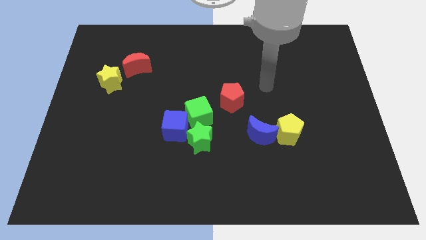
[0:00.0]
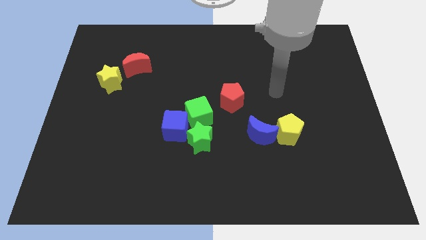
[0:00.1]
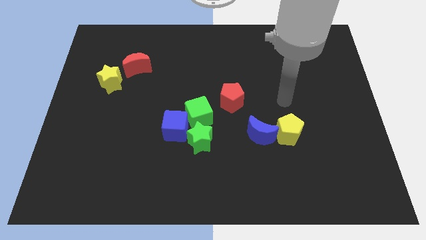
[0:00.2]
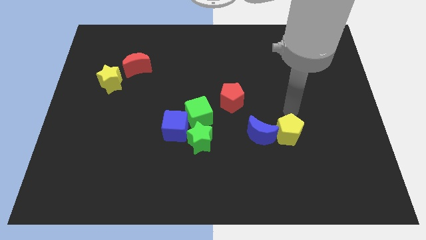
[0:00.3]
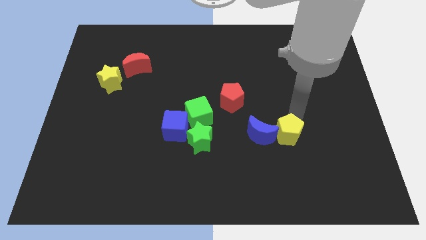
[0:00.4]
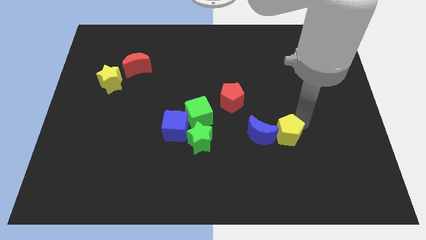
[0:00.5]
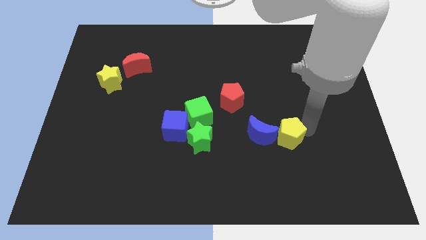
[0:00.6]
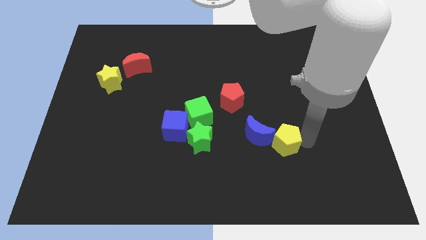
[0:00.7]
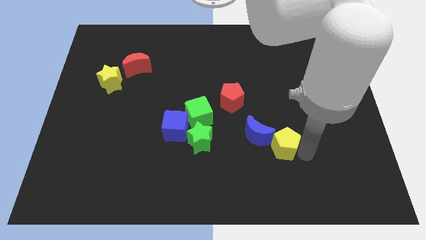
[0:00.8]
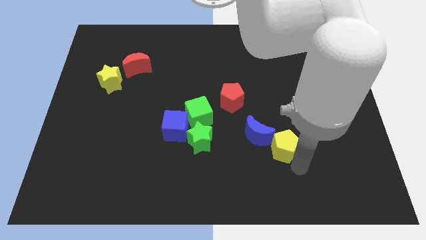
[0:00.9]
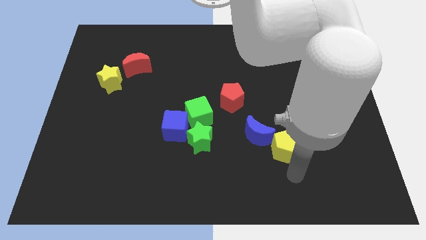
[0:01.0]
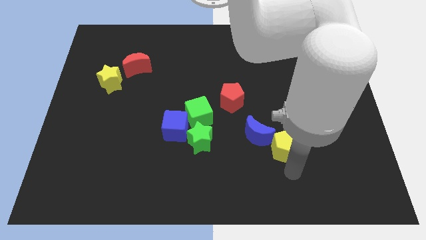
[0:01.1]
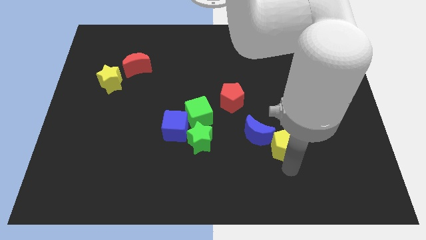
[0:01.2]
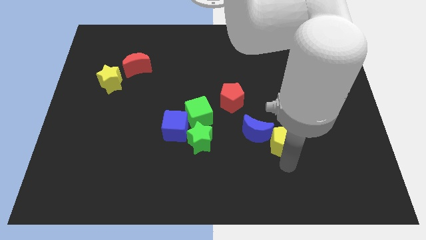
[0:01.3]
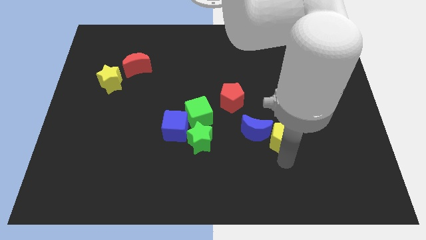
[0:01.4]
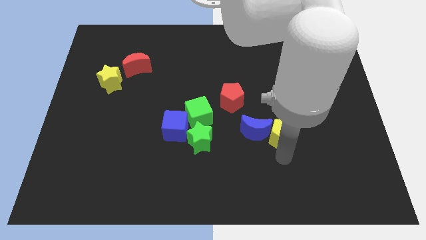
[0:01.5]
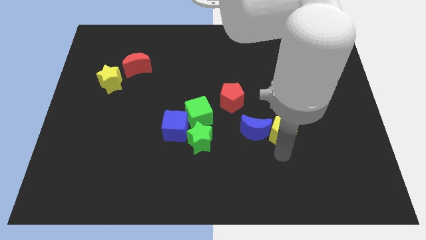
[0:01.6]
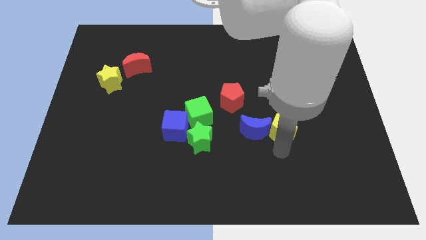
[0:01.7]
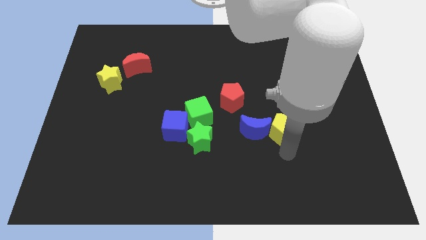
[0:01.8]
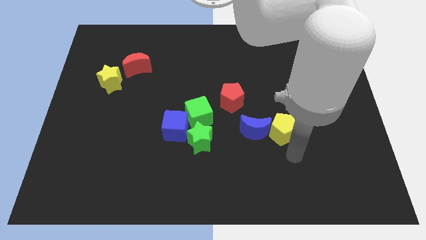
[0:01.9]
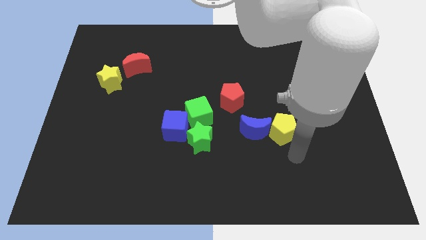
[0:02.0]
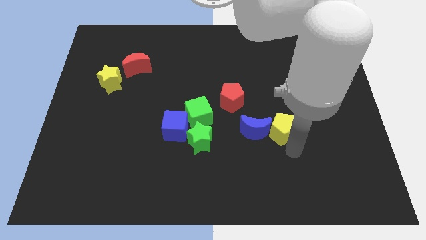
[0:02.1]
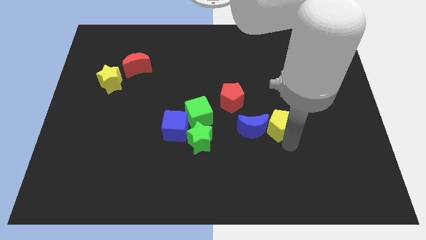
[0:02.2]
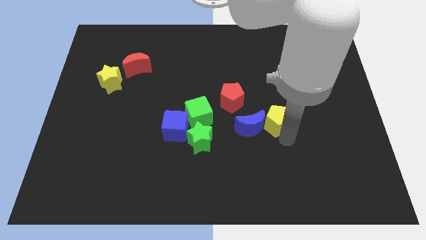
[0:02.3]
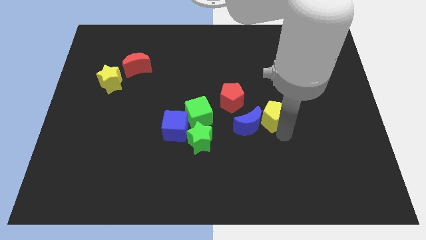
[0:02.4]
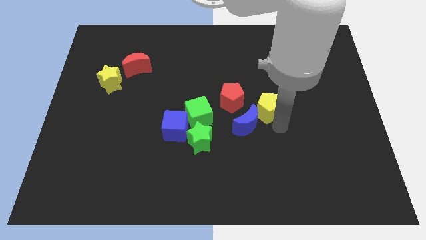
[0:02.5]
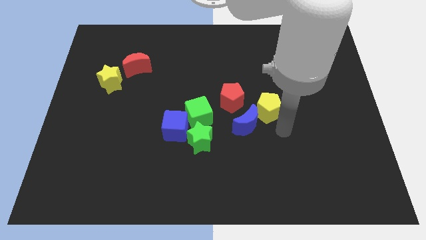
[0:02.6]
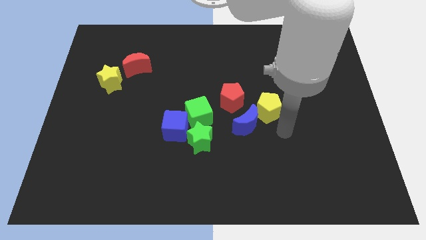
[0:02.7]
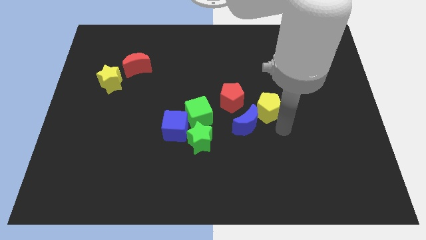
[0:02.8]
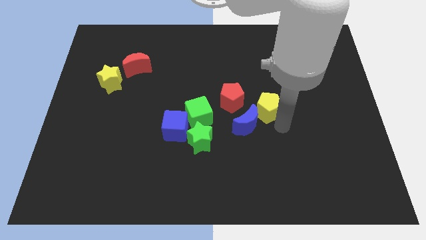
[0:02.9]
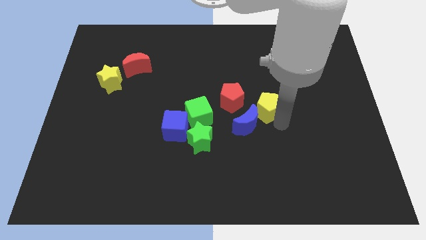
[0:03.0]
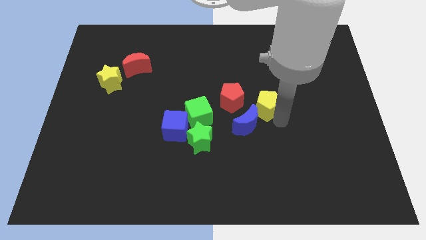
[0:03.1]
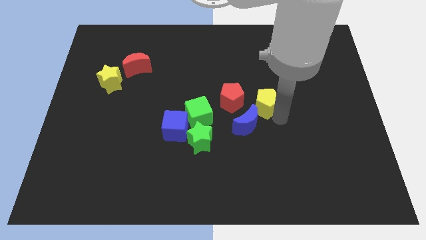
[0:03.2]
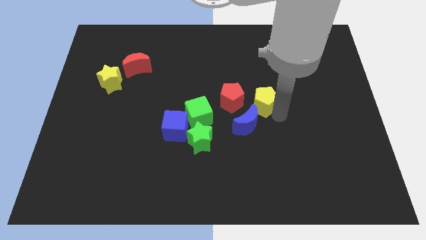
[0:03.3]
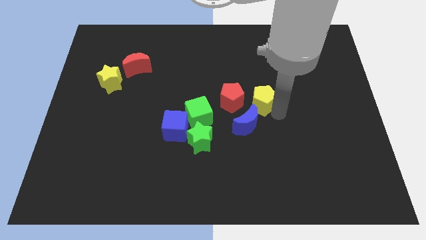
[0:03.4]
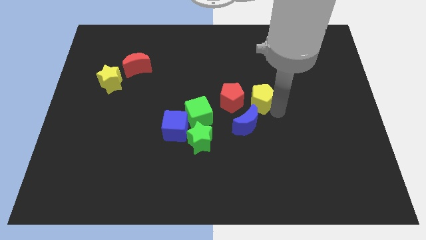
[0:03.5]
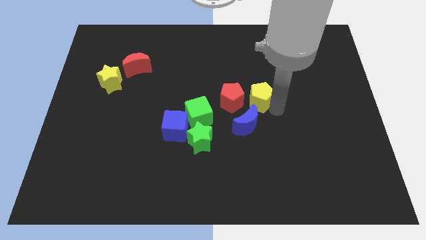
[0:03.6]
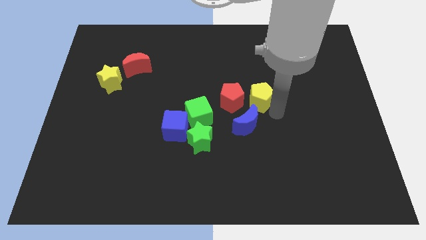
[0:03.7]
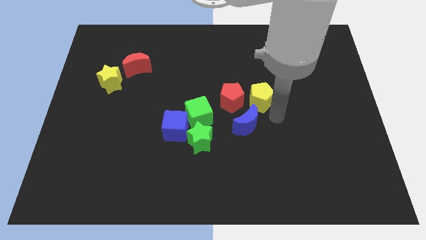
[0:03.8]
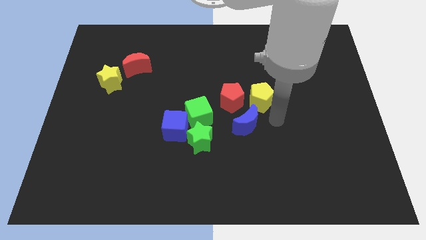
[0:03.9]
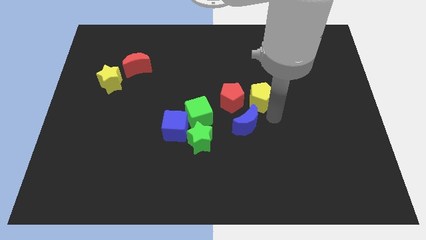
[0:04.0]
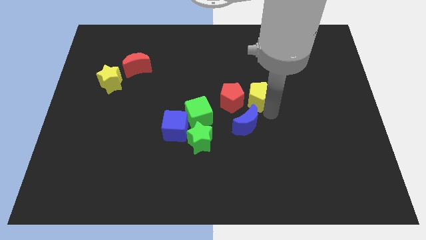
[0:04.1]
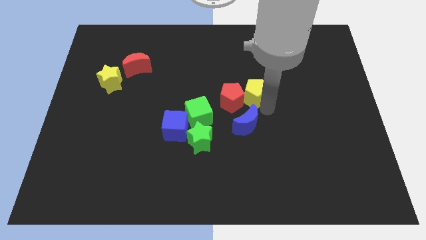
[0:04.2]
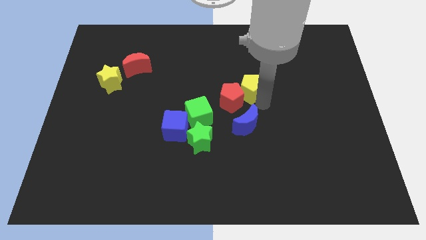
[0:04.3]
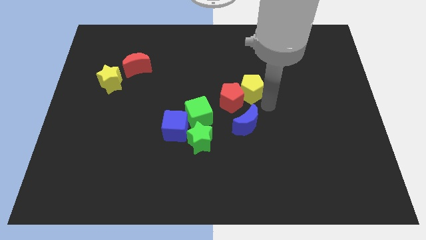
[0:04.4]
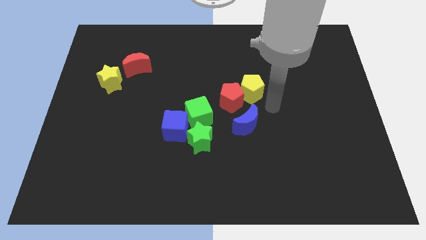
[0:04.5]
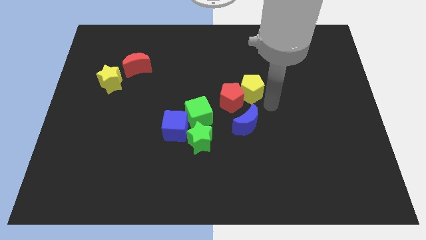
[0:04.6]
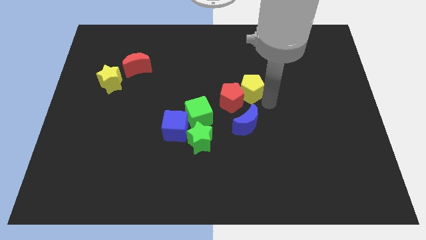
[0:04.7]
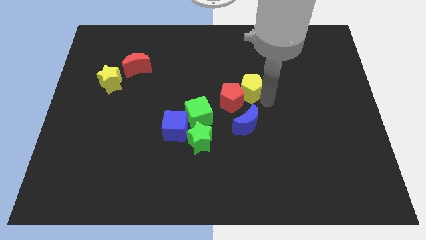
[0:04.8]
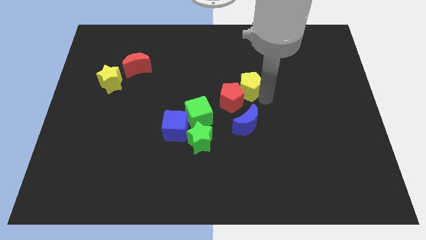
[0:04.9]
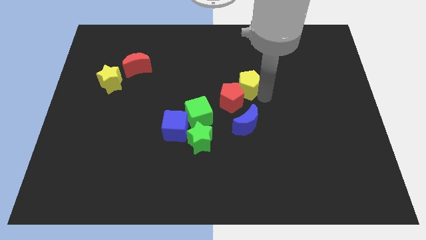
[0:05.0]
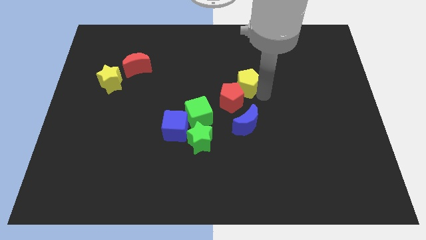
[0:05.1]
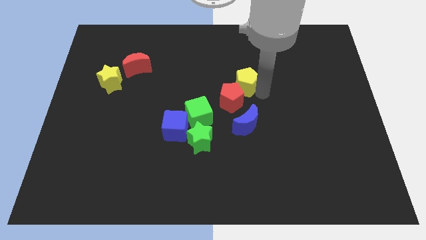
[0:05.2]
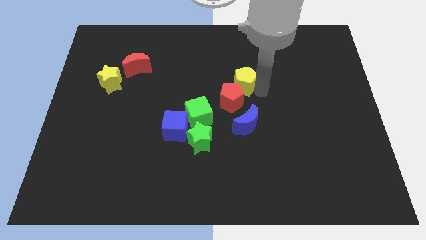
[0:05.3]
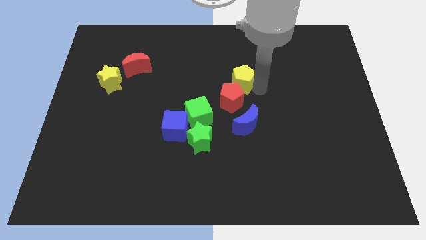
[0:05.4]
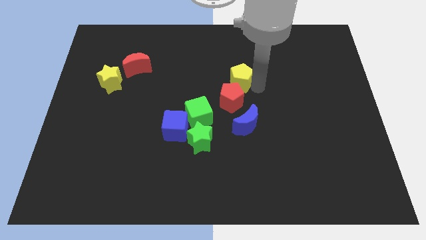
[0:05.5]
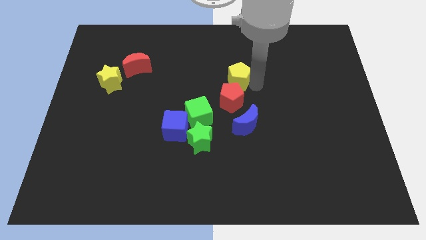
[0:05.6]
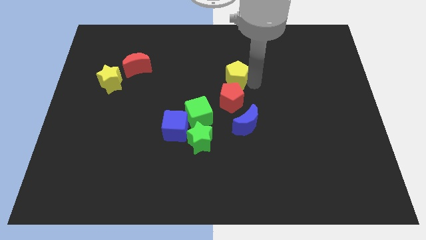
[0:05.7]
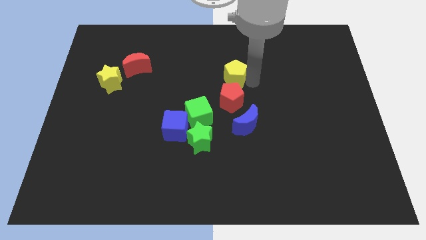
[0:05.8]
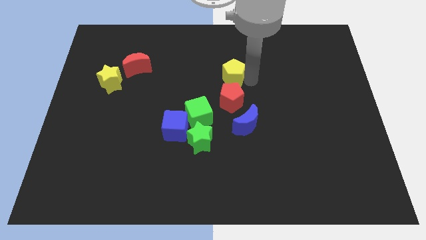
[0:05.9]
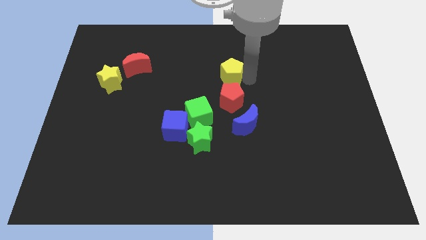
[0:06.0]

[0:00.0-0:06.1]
push the yellow pentagon diagonally up and to the left

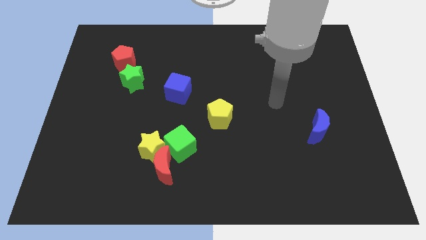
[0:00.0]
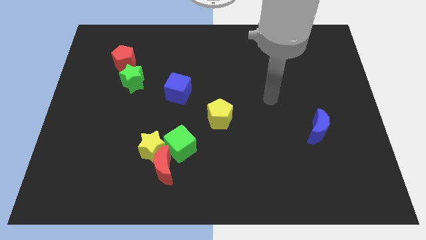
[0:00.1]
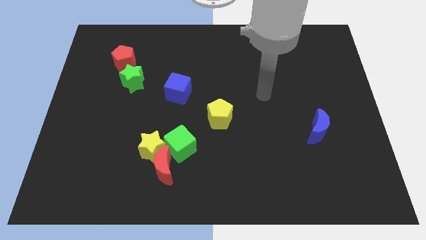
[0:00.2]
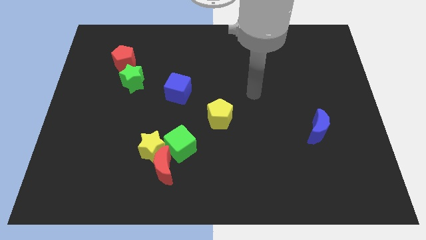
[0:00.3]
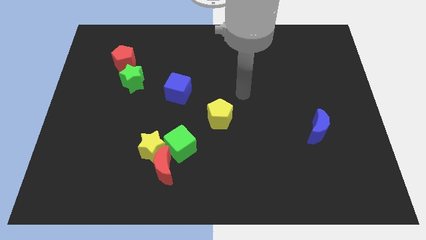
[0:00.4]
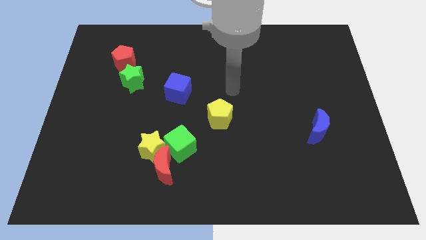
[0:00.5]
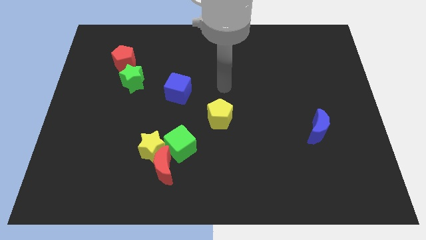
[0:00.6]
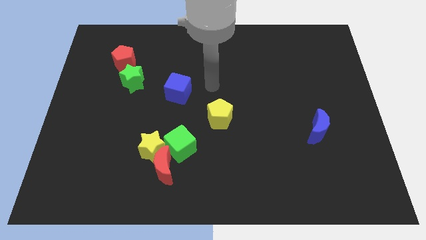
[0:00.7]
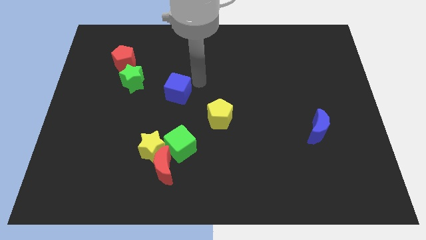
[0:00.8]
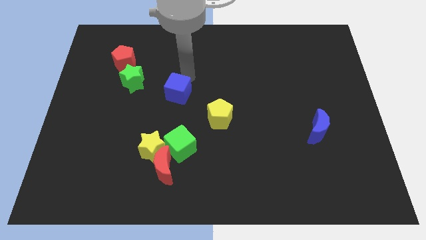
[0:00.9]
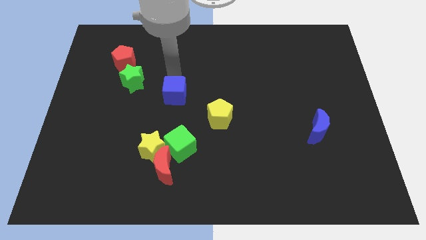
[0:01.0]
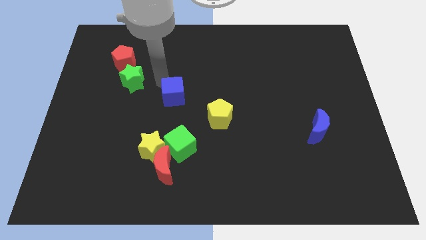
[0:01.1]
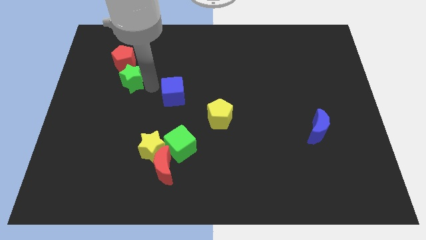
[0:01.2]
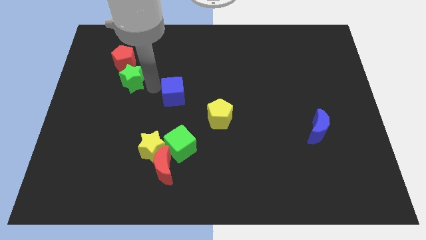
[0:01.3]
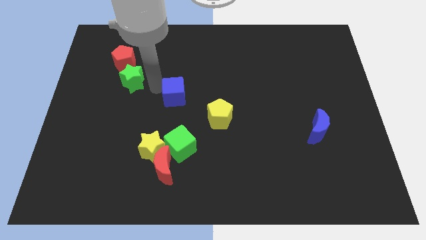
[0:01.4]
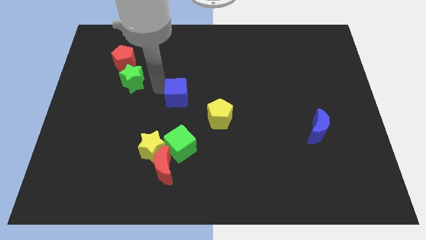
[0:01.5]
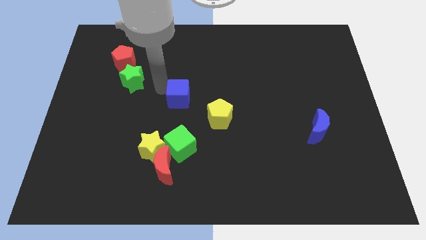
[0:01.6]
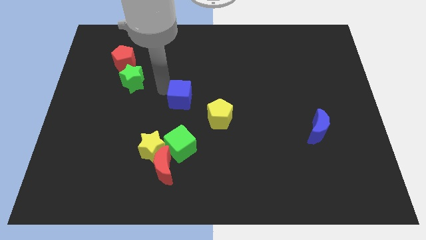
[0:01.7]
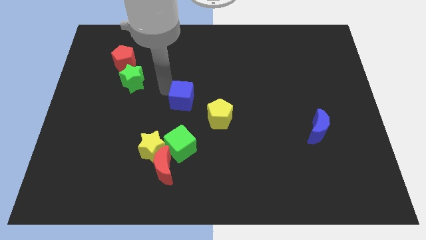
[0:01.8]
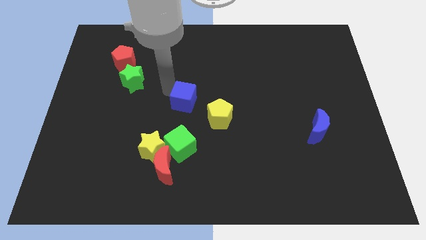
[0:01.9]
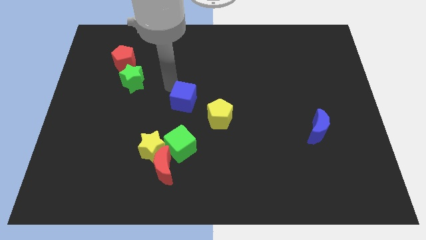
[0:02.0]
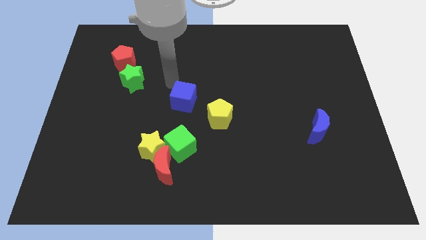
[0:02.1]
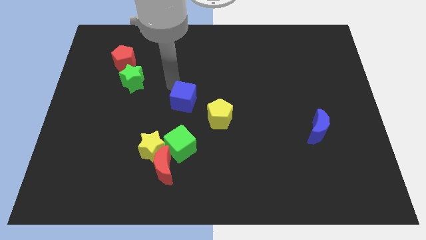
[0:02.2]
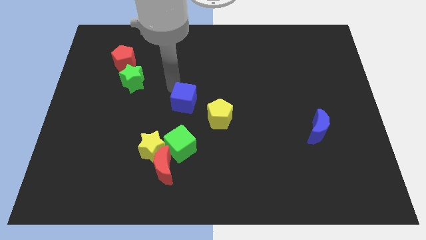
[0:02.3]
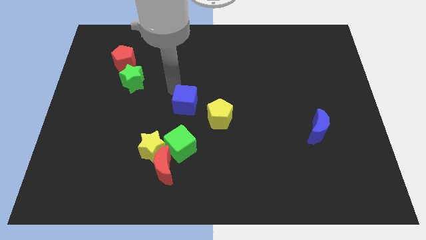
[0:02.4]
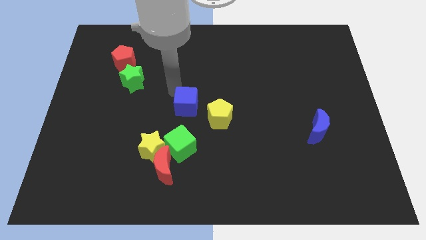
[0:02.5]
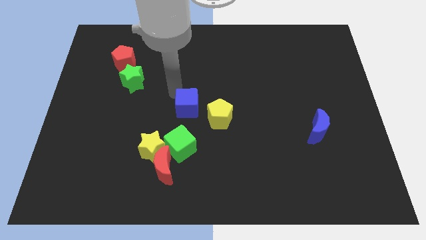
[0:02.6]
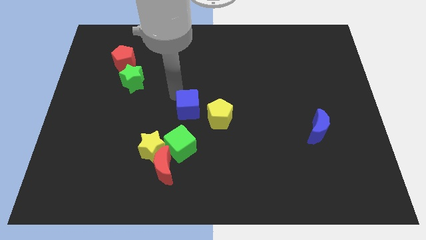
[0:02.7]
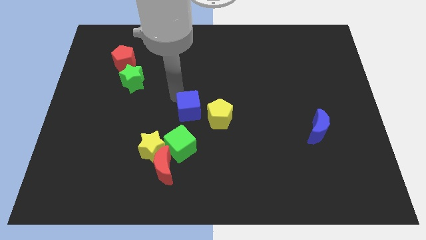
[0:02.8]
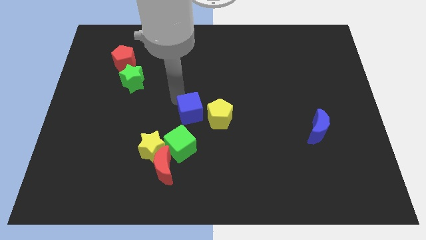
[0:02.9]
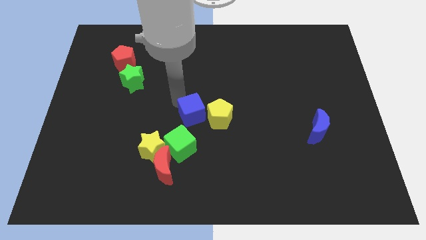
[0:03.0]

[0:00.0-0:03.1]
slightly slide the blue cube downwards and right diagonally
